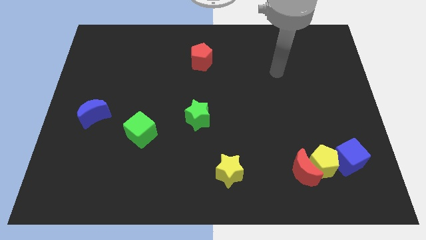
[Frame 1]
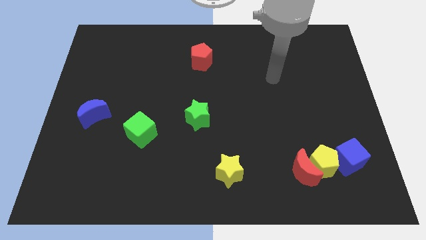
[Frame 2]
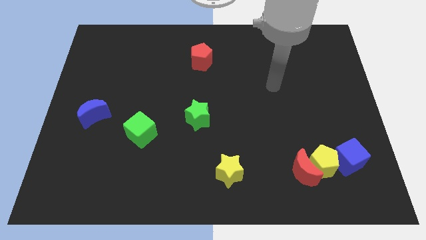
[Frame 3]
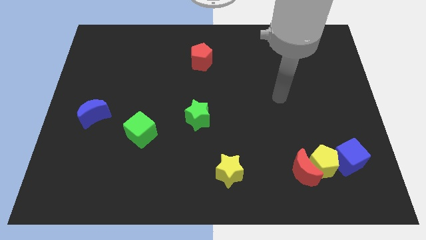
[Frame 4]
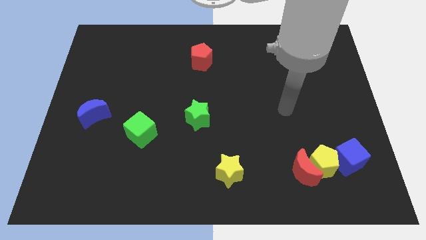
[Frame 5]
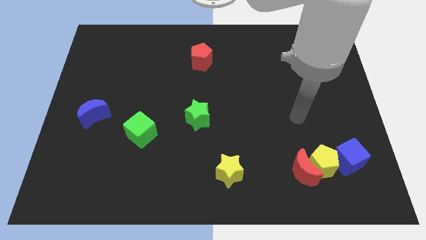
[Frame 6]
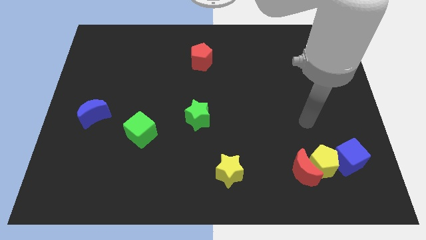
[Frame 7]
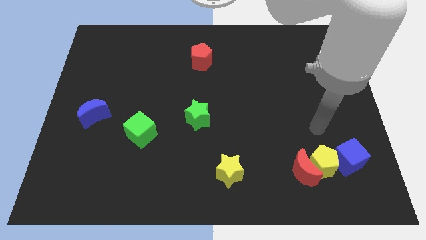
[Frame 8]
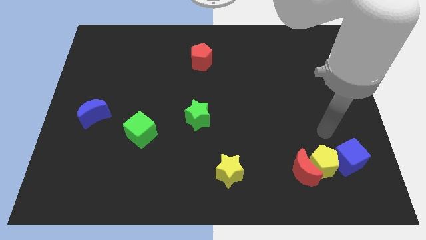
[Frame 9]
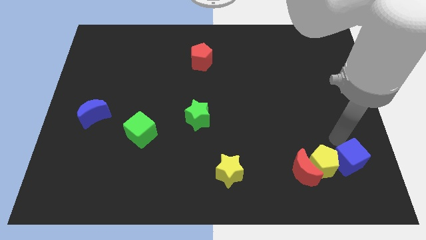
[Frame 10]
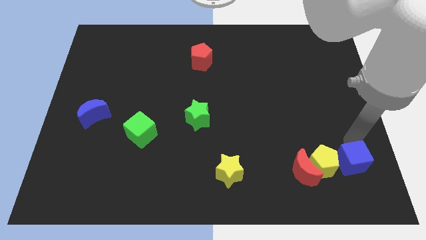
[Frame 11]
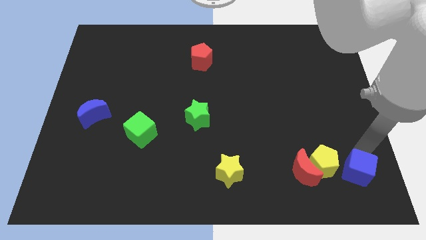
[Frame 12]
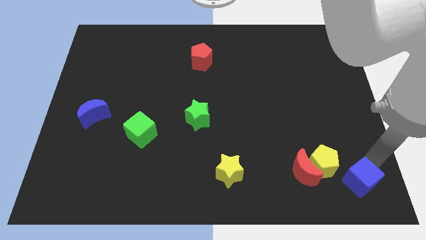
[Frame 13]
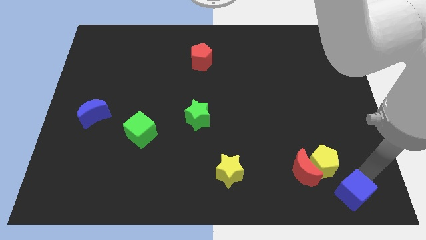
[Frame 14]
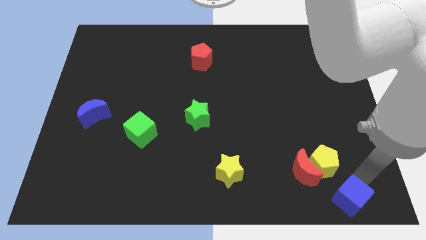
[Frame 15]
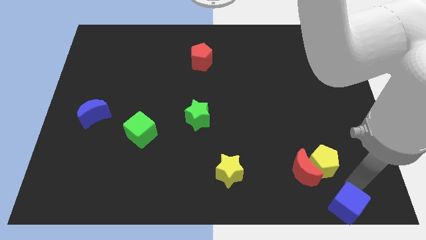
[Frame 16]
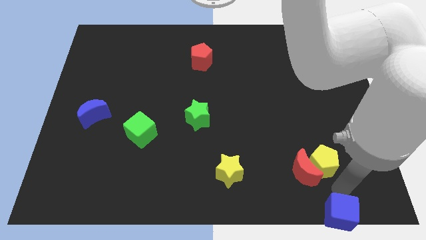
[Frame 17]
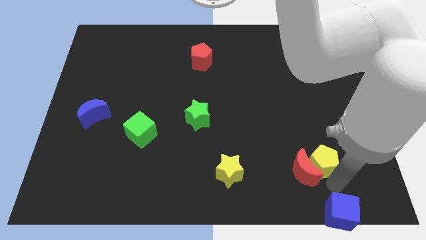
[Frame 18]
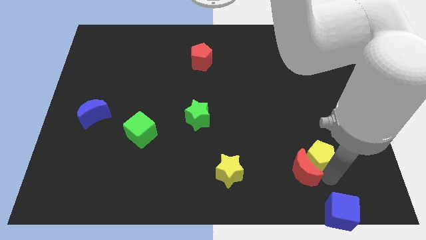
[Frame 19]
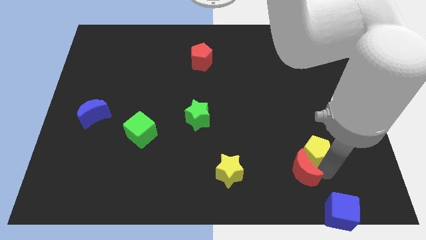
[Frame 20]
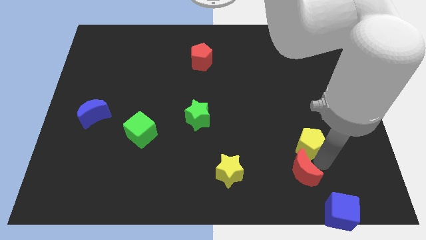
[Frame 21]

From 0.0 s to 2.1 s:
move the yellow pentagon away from the red moon and blue cube

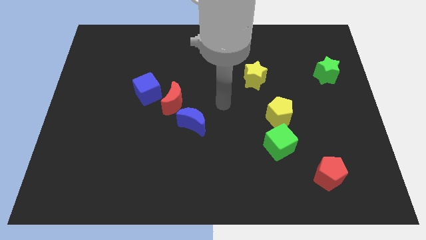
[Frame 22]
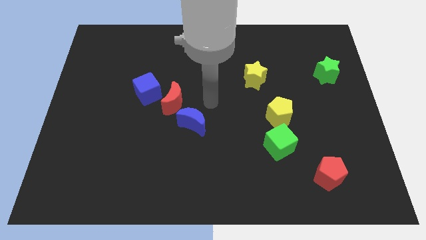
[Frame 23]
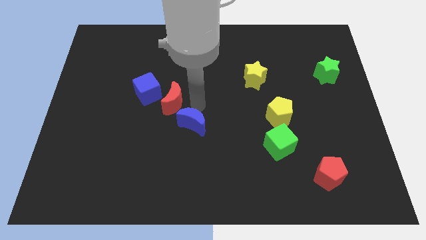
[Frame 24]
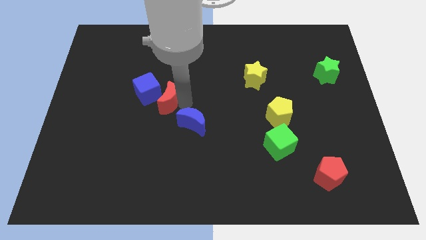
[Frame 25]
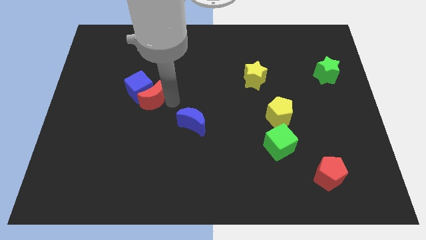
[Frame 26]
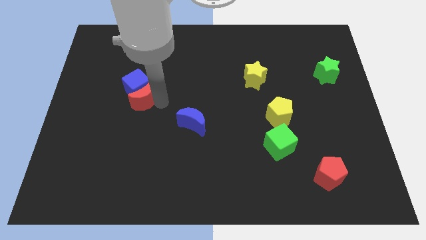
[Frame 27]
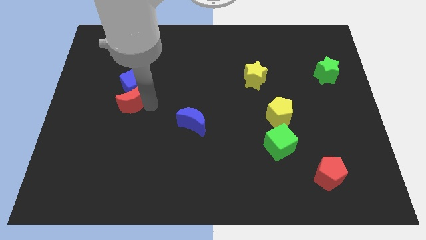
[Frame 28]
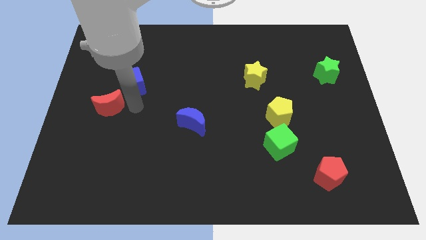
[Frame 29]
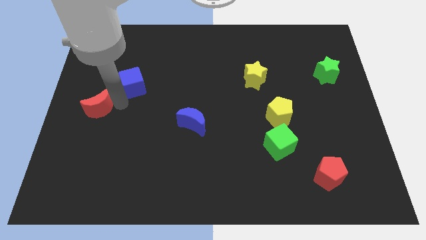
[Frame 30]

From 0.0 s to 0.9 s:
pull the blue cube apart from the red moon

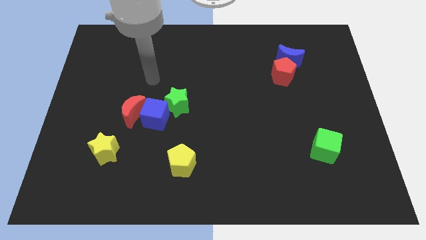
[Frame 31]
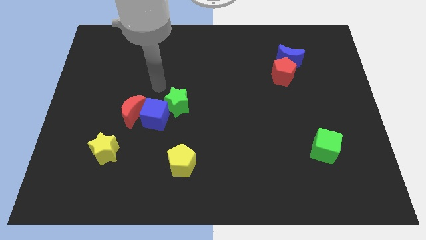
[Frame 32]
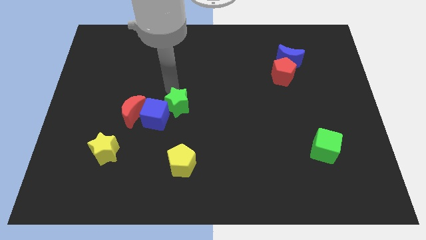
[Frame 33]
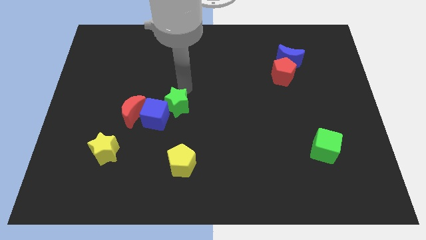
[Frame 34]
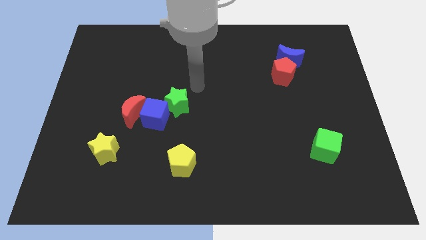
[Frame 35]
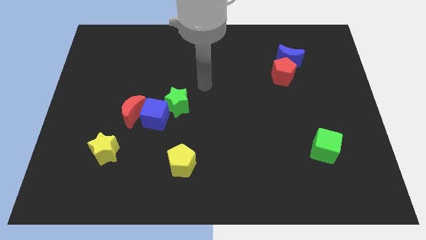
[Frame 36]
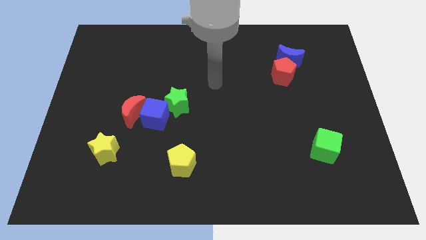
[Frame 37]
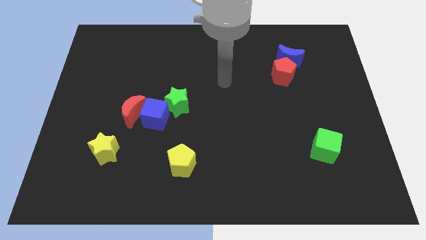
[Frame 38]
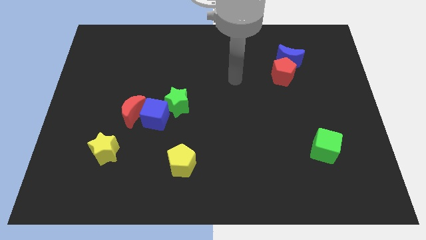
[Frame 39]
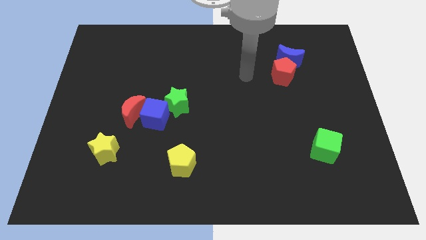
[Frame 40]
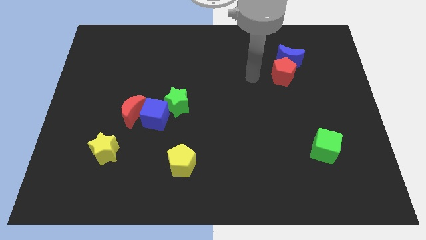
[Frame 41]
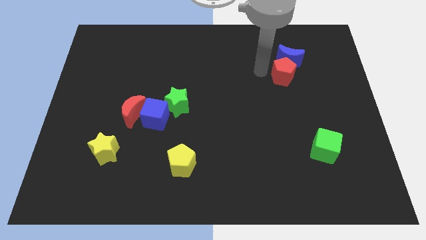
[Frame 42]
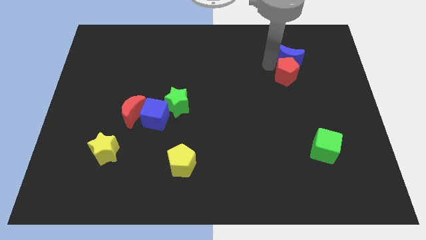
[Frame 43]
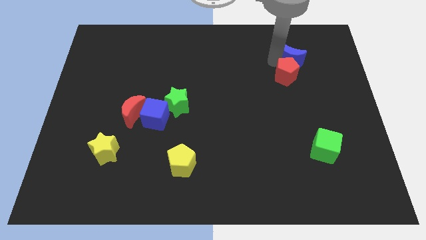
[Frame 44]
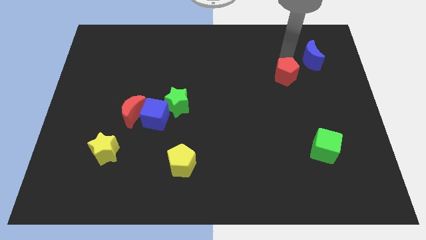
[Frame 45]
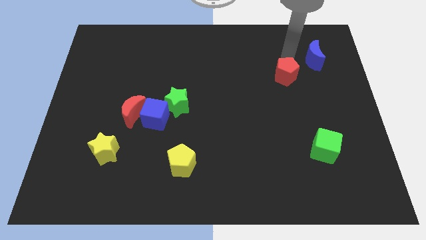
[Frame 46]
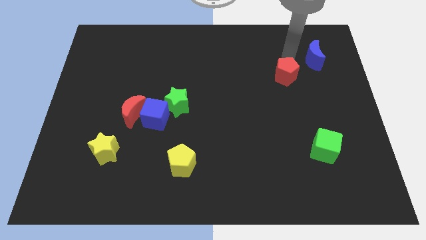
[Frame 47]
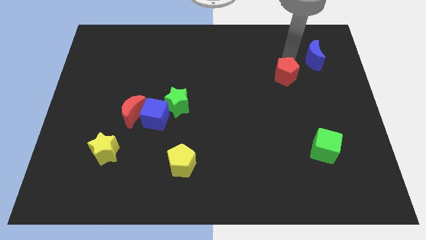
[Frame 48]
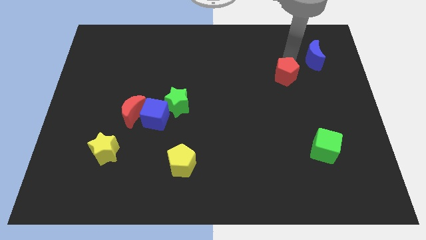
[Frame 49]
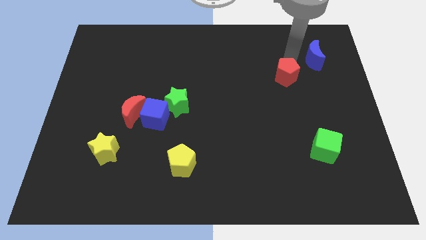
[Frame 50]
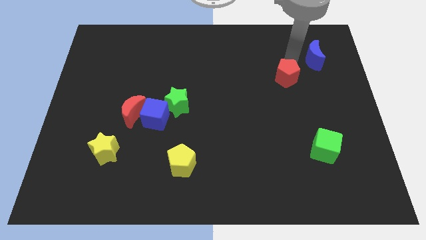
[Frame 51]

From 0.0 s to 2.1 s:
move the red pentagon away from the blue moon

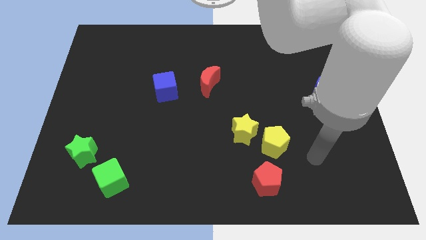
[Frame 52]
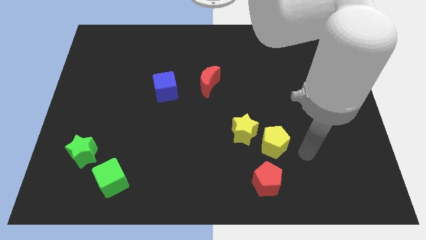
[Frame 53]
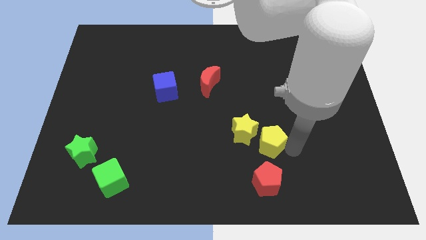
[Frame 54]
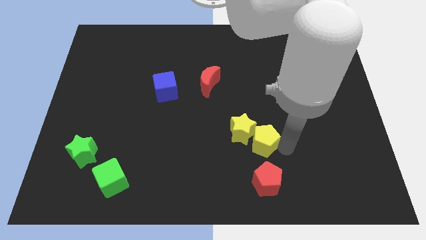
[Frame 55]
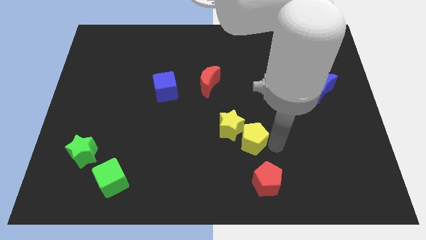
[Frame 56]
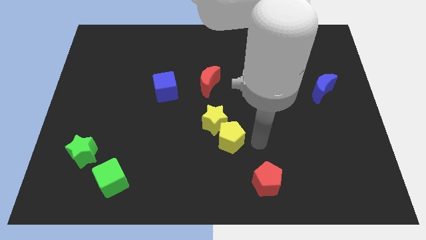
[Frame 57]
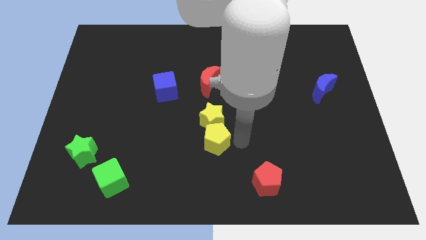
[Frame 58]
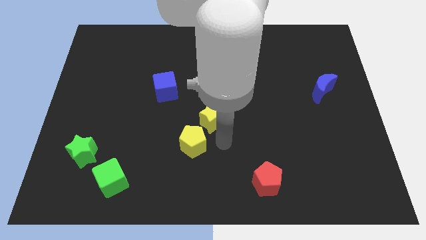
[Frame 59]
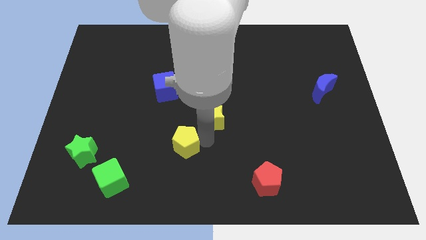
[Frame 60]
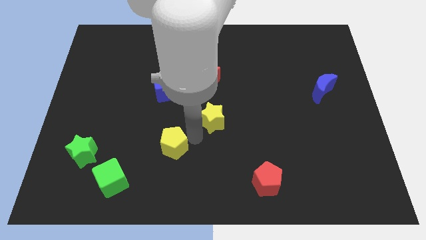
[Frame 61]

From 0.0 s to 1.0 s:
separate the yellow star from the yellow pentagon

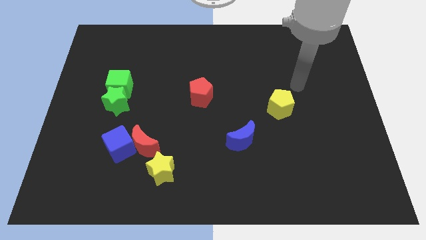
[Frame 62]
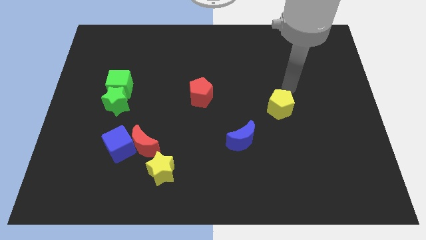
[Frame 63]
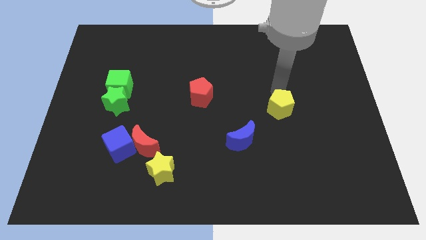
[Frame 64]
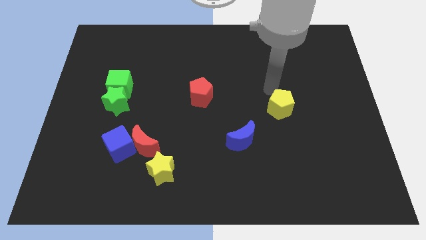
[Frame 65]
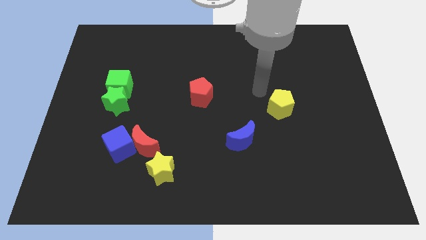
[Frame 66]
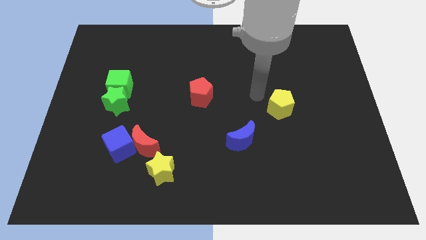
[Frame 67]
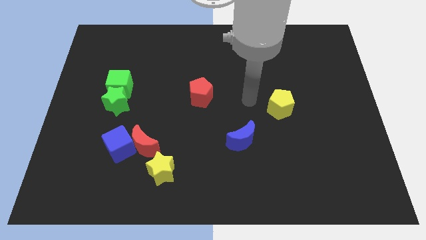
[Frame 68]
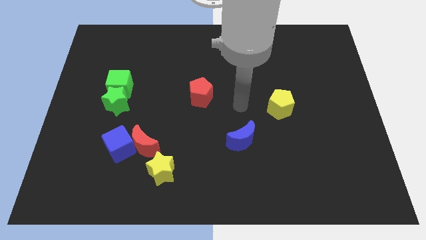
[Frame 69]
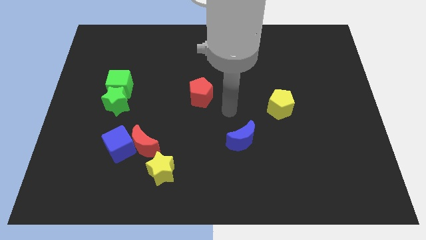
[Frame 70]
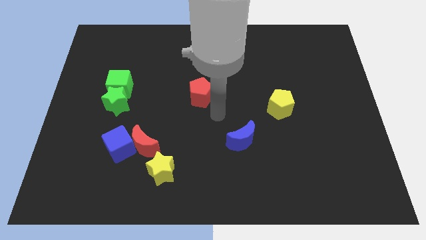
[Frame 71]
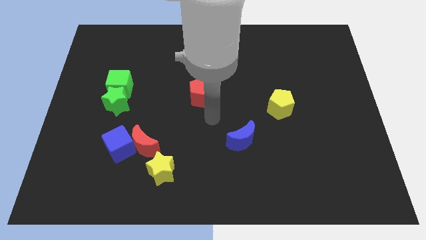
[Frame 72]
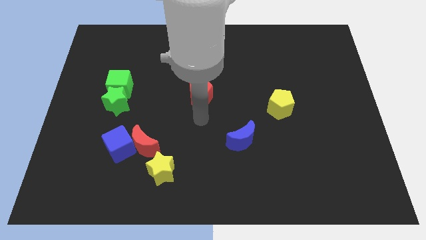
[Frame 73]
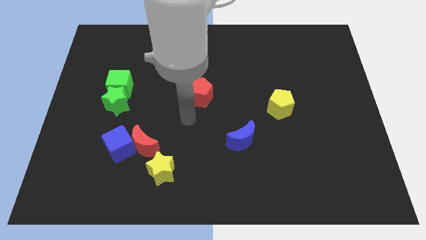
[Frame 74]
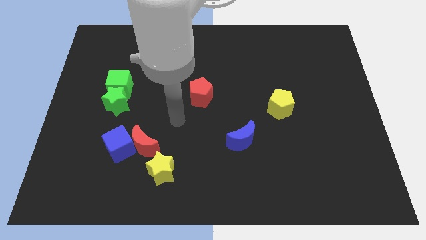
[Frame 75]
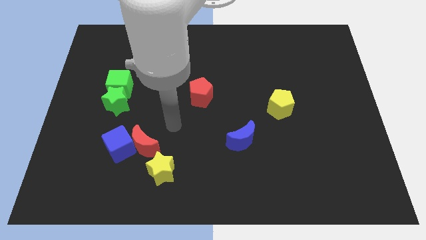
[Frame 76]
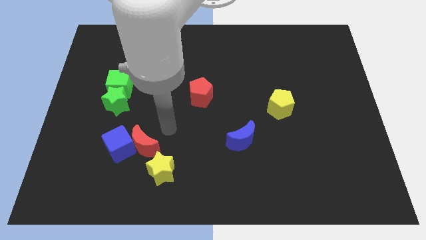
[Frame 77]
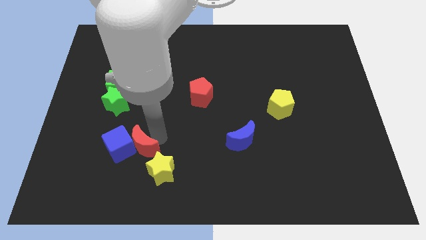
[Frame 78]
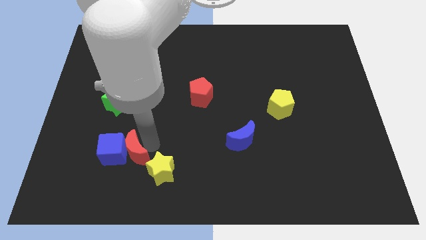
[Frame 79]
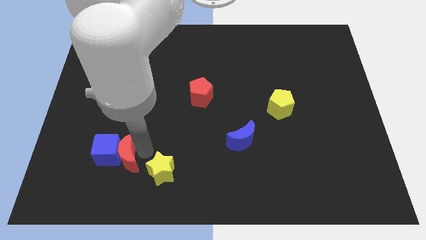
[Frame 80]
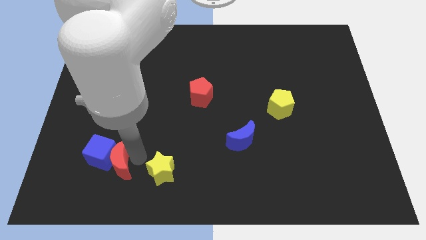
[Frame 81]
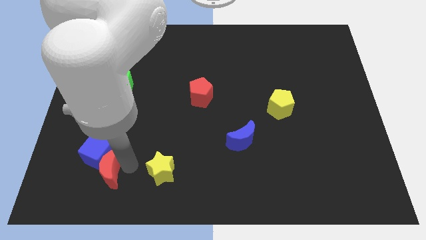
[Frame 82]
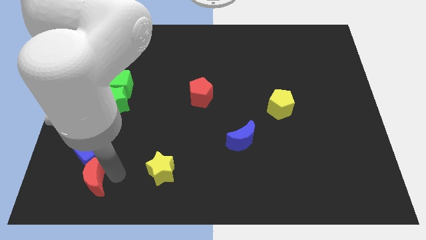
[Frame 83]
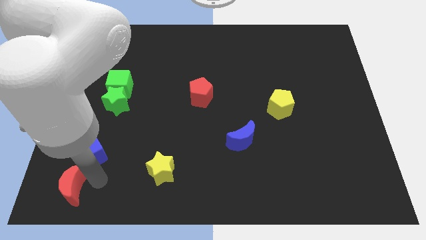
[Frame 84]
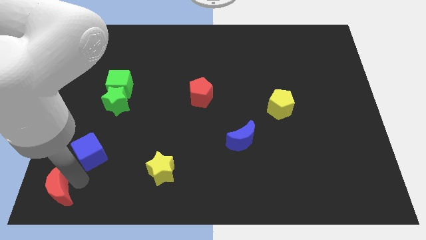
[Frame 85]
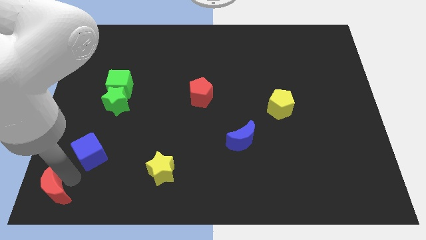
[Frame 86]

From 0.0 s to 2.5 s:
move the blue cube away from the red moon

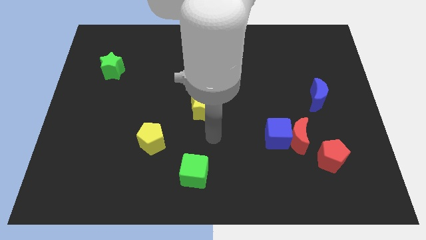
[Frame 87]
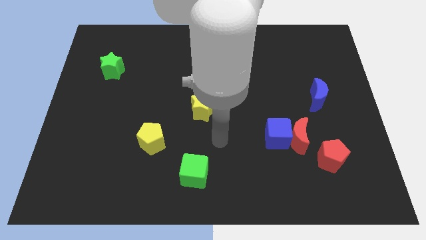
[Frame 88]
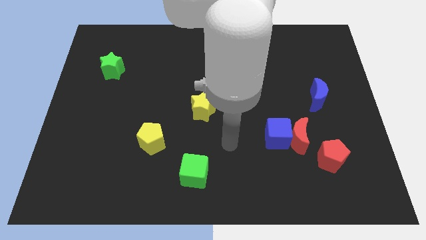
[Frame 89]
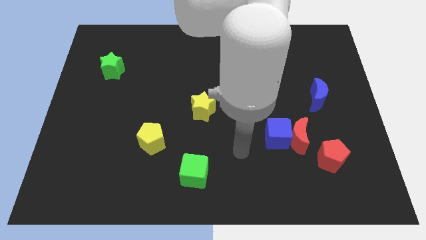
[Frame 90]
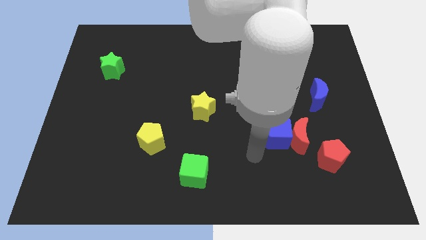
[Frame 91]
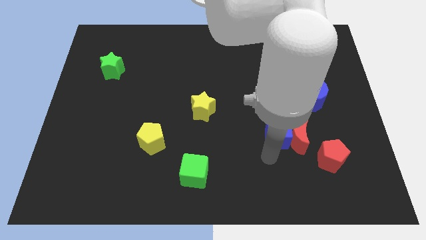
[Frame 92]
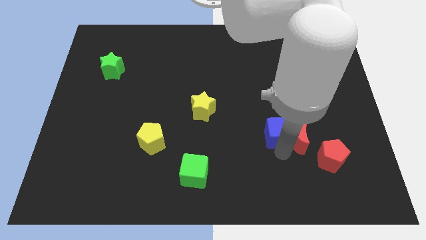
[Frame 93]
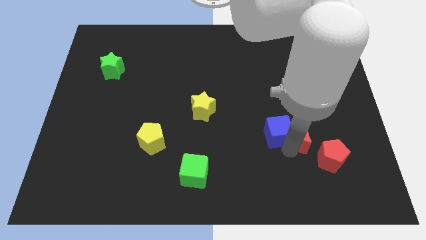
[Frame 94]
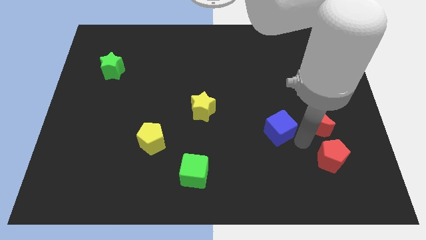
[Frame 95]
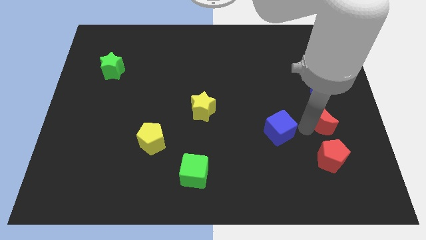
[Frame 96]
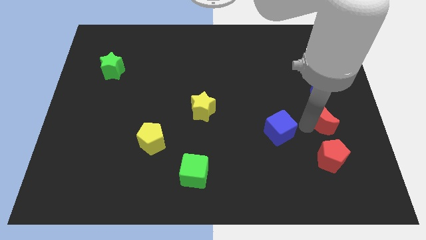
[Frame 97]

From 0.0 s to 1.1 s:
separate the blue cube from the red moon
